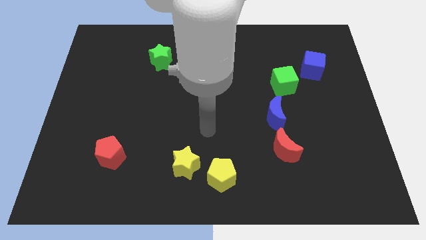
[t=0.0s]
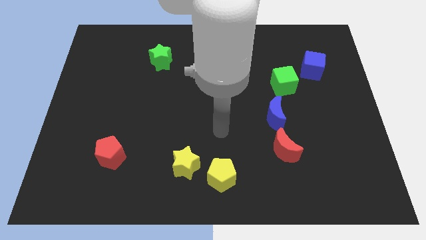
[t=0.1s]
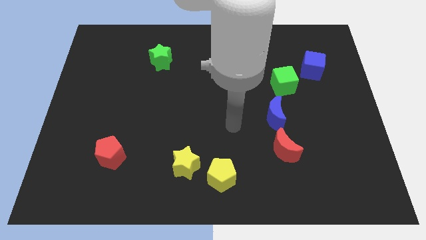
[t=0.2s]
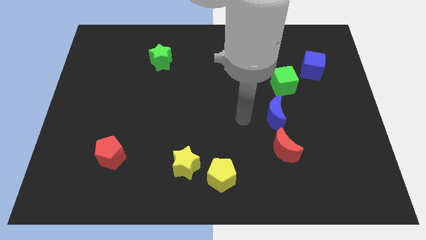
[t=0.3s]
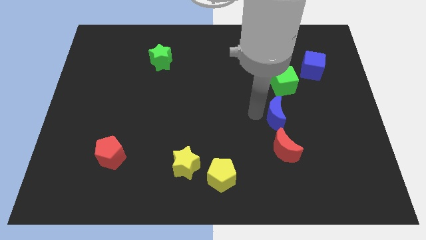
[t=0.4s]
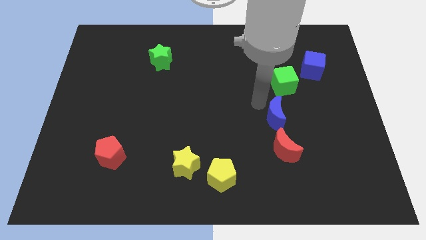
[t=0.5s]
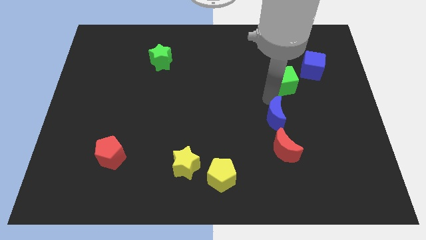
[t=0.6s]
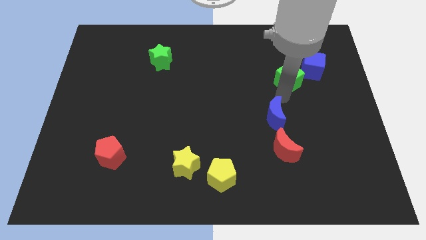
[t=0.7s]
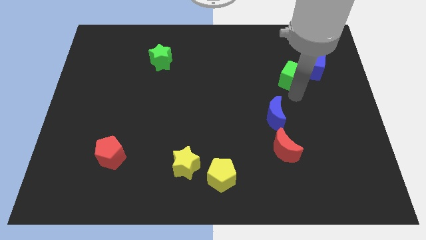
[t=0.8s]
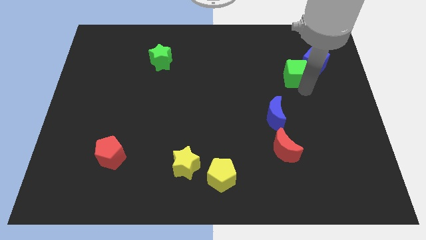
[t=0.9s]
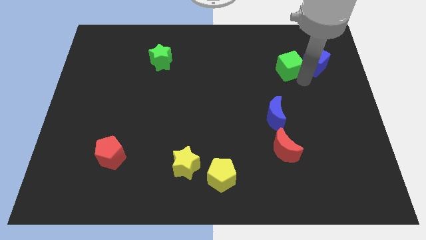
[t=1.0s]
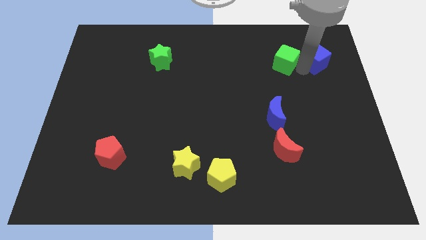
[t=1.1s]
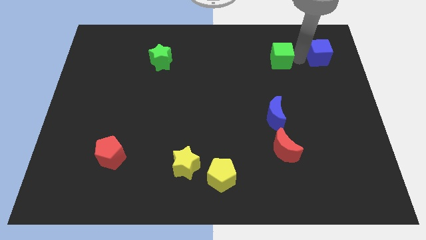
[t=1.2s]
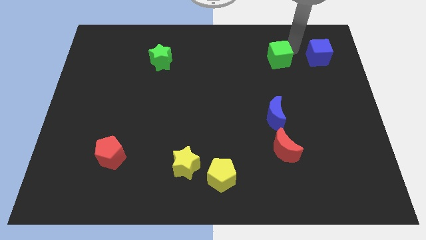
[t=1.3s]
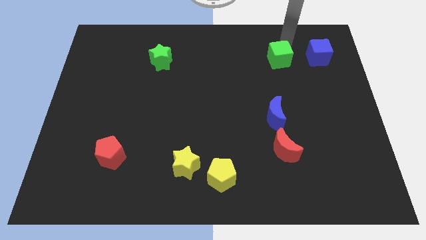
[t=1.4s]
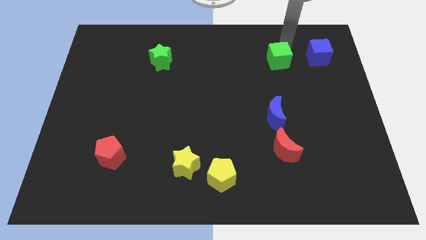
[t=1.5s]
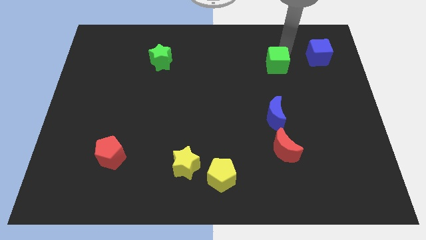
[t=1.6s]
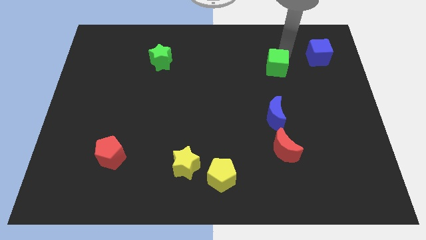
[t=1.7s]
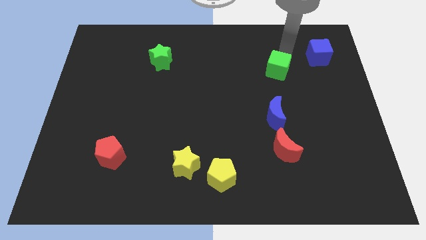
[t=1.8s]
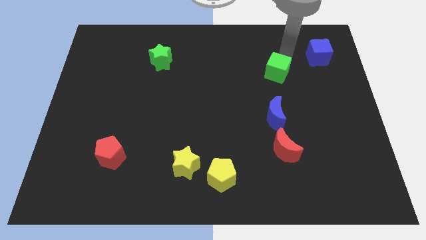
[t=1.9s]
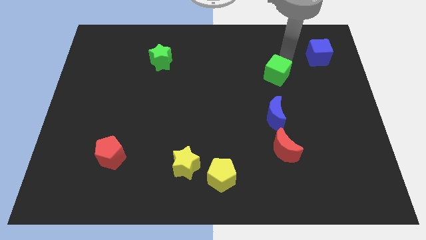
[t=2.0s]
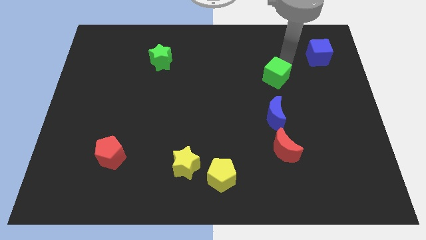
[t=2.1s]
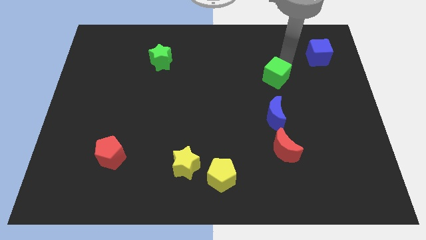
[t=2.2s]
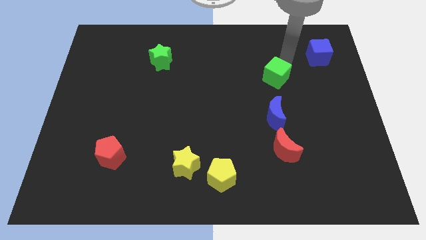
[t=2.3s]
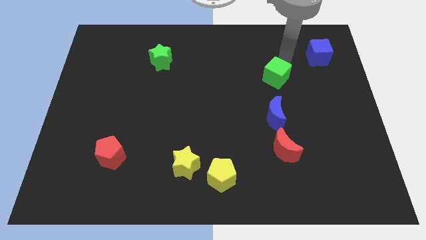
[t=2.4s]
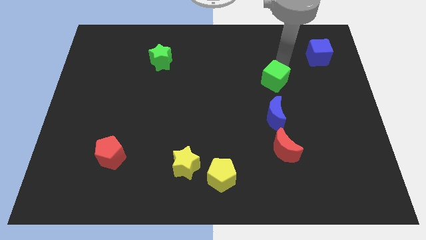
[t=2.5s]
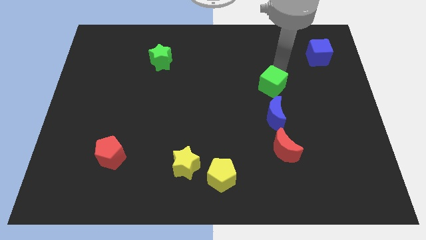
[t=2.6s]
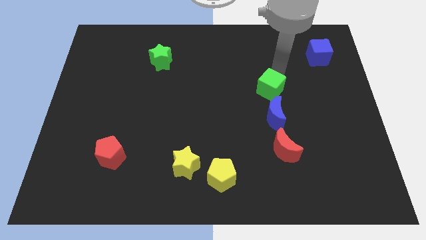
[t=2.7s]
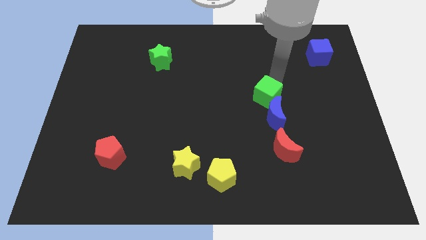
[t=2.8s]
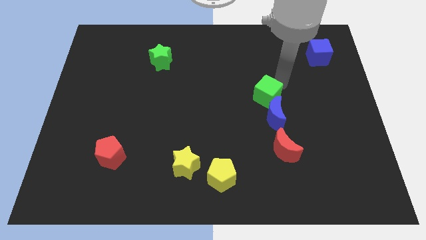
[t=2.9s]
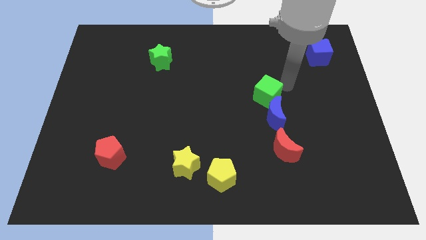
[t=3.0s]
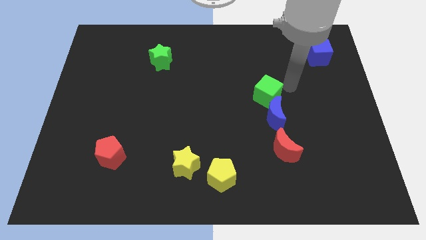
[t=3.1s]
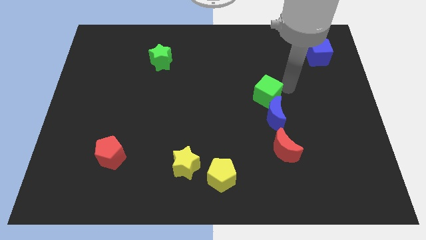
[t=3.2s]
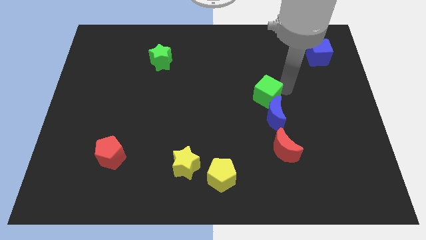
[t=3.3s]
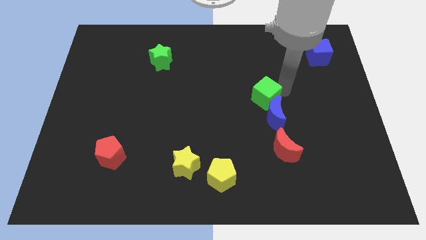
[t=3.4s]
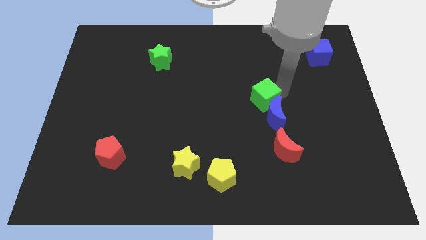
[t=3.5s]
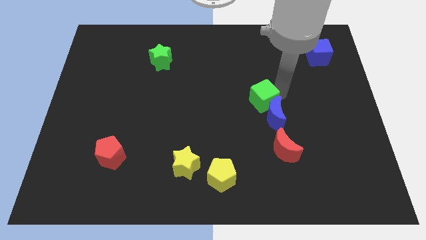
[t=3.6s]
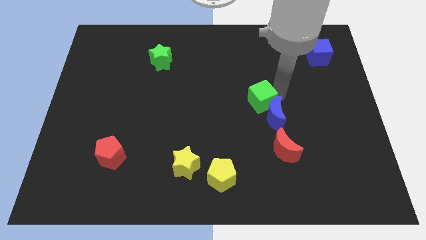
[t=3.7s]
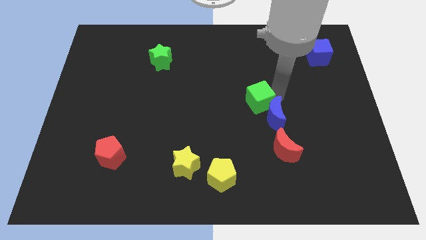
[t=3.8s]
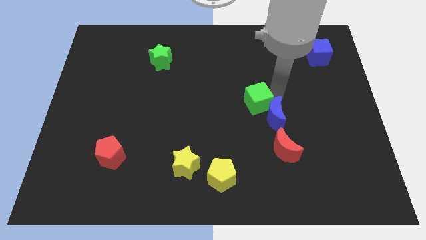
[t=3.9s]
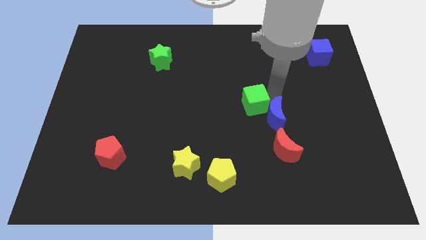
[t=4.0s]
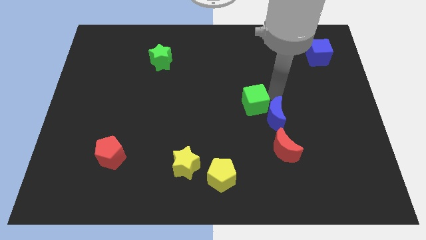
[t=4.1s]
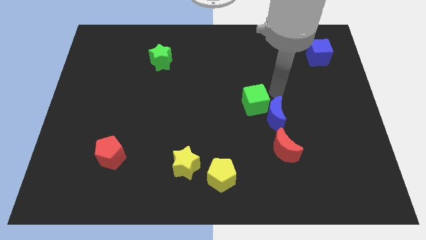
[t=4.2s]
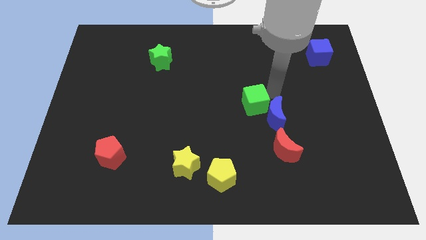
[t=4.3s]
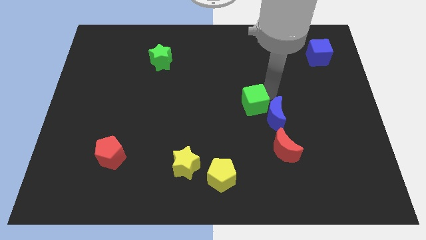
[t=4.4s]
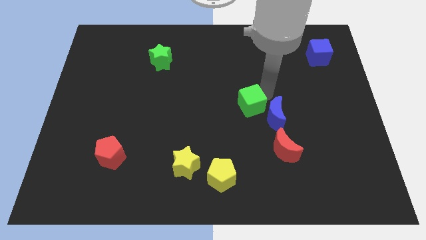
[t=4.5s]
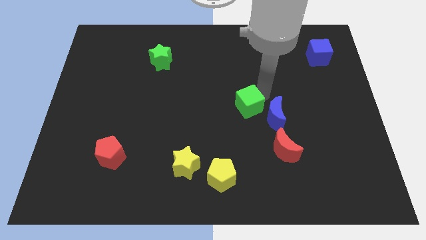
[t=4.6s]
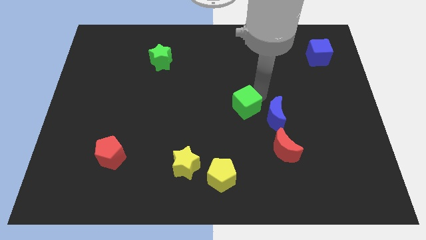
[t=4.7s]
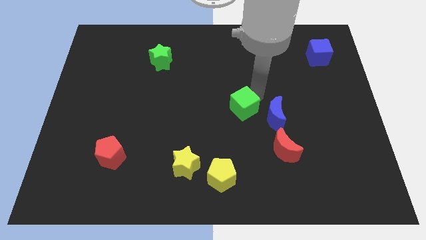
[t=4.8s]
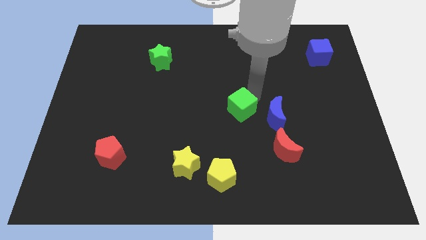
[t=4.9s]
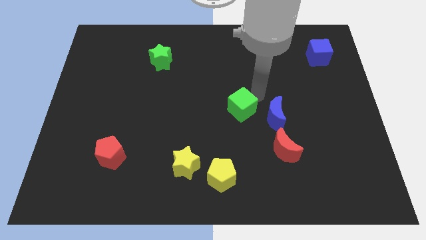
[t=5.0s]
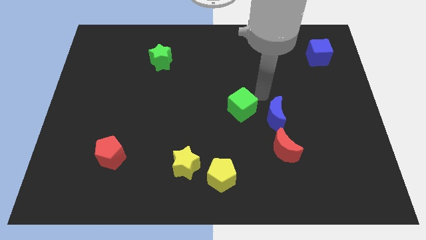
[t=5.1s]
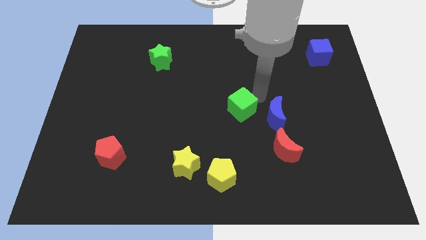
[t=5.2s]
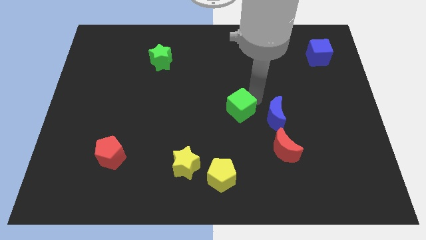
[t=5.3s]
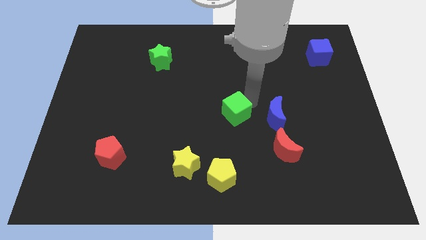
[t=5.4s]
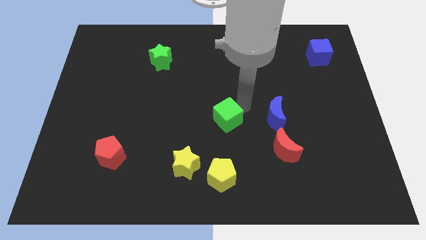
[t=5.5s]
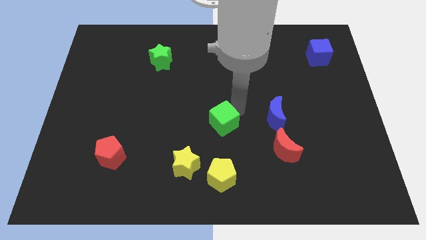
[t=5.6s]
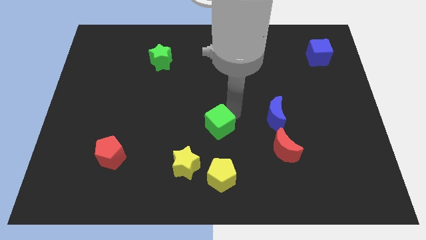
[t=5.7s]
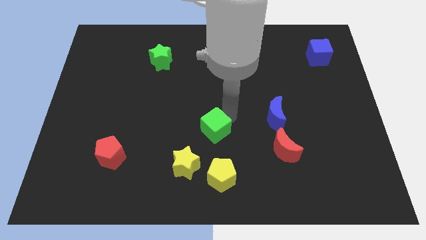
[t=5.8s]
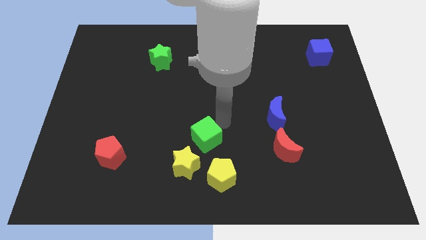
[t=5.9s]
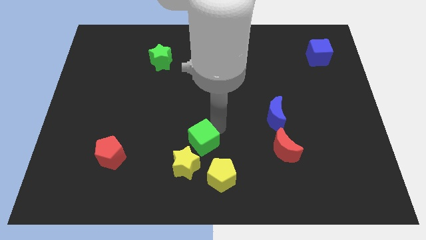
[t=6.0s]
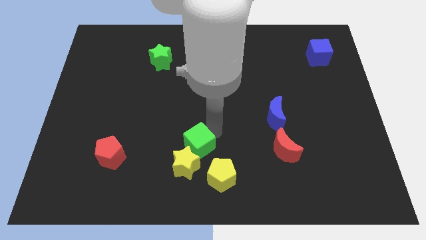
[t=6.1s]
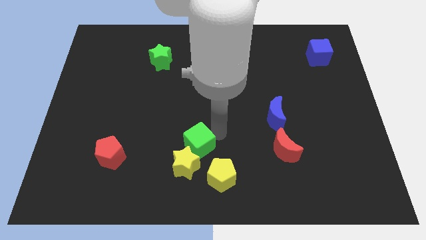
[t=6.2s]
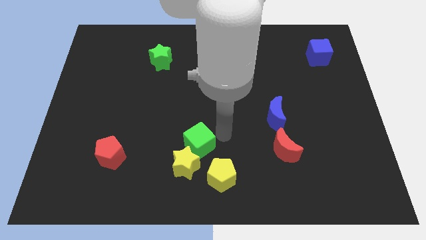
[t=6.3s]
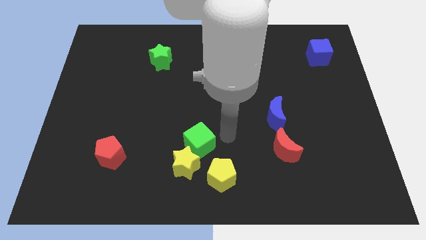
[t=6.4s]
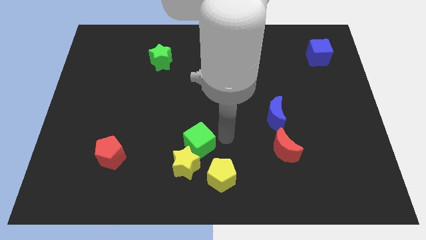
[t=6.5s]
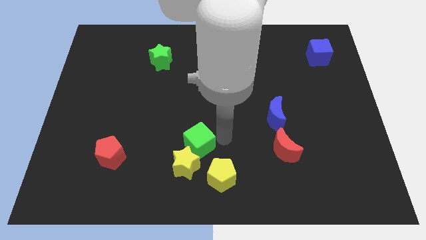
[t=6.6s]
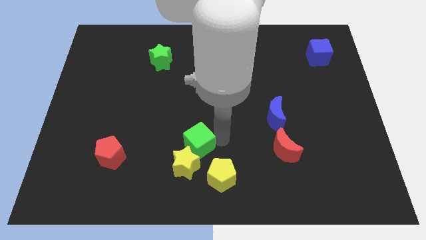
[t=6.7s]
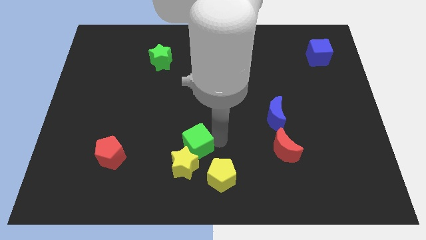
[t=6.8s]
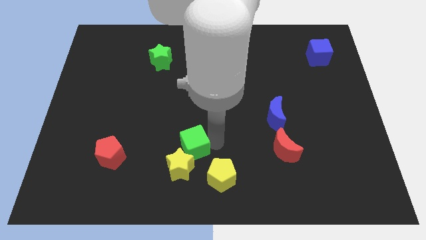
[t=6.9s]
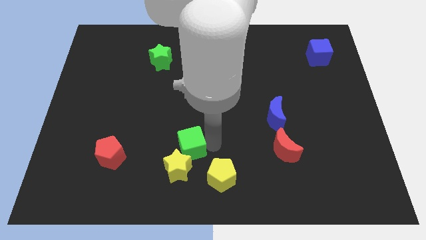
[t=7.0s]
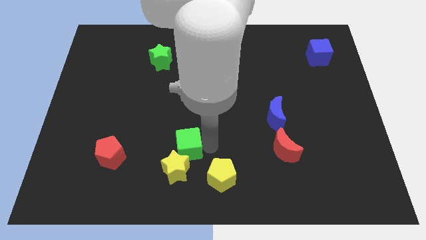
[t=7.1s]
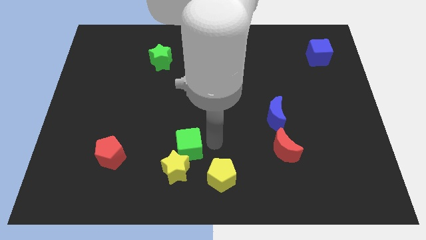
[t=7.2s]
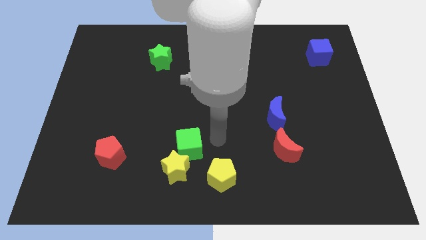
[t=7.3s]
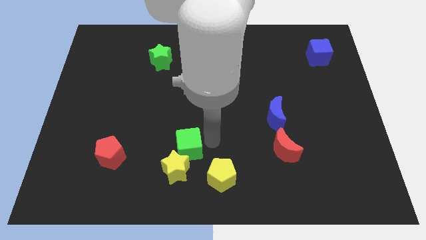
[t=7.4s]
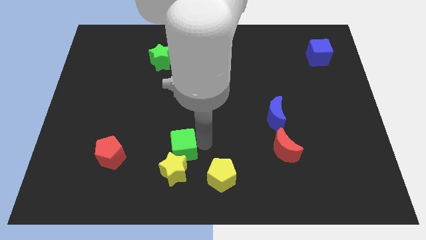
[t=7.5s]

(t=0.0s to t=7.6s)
move the green cube to the right side of the red pentagon
